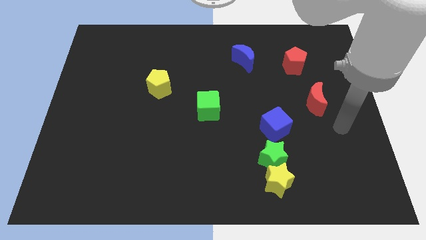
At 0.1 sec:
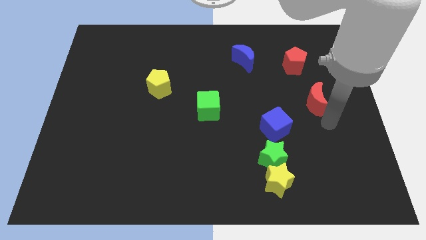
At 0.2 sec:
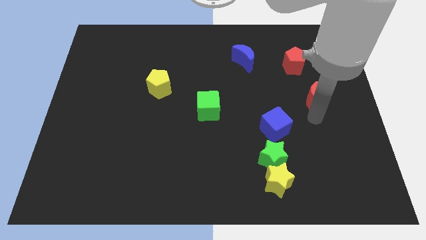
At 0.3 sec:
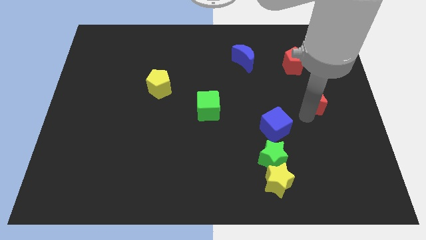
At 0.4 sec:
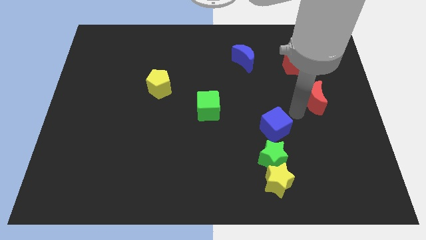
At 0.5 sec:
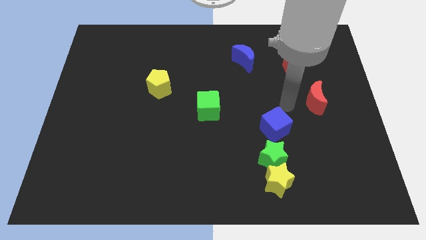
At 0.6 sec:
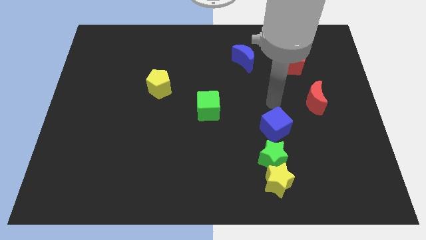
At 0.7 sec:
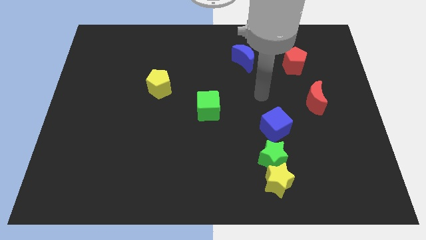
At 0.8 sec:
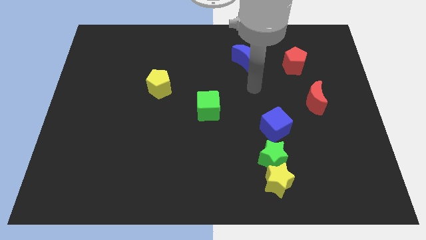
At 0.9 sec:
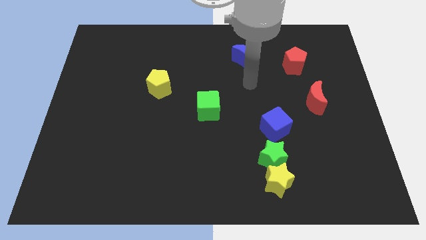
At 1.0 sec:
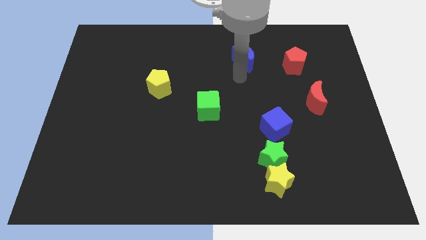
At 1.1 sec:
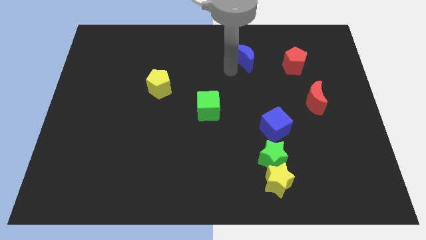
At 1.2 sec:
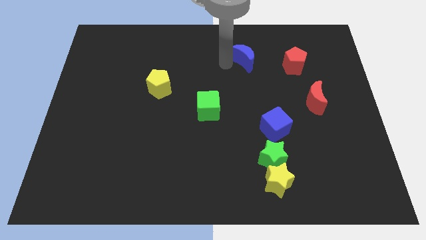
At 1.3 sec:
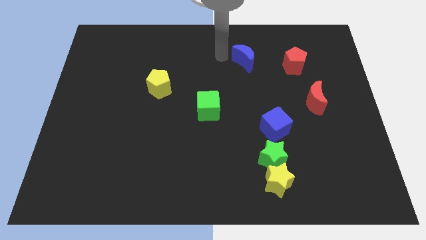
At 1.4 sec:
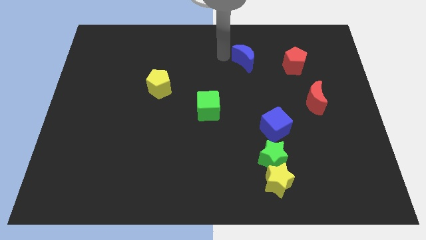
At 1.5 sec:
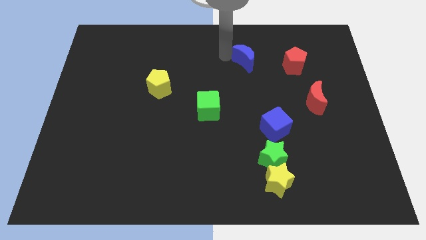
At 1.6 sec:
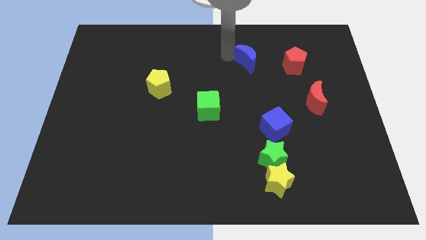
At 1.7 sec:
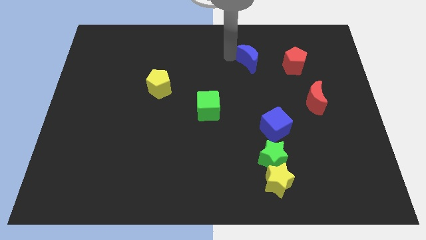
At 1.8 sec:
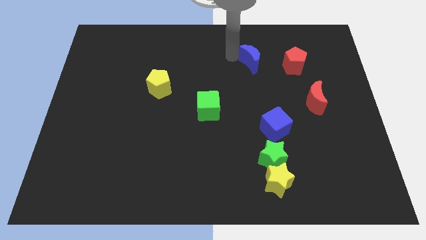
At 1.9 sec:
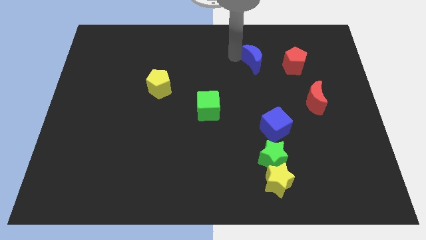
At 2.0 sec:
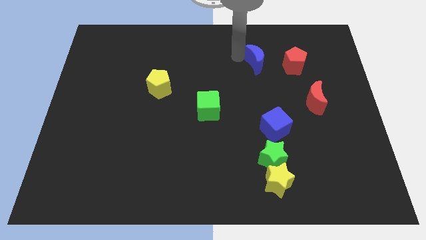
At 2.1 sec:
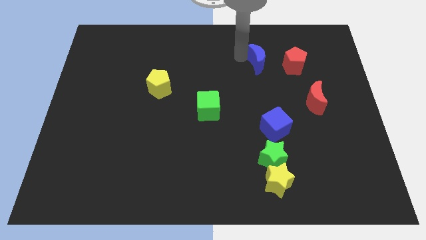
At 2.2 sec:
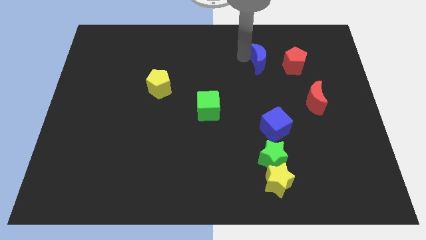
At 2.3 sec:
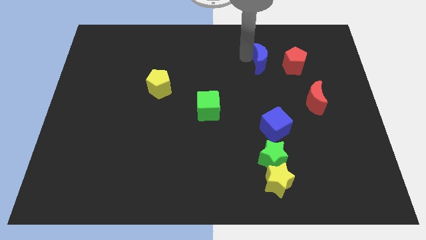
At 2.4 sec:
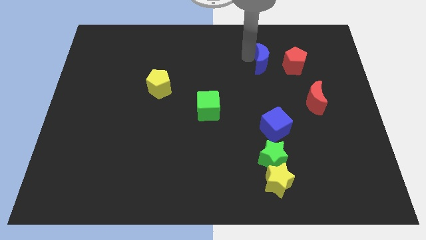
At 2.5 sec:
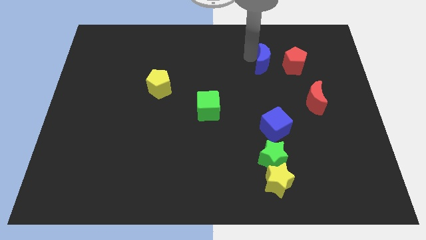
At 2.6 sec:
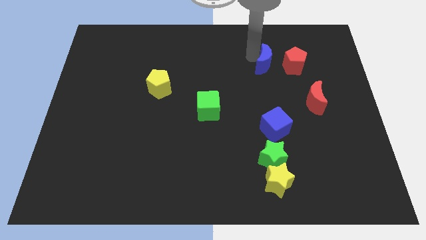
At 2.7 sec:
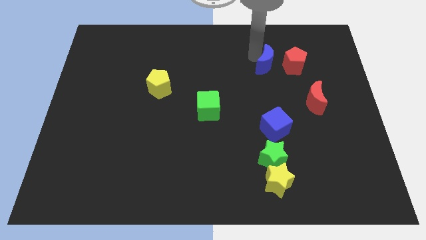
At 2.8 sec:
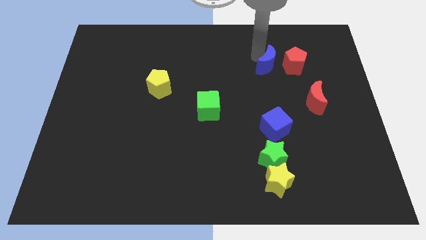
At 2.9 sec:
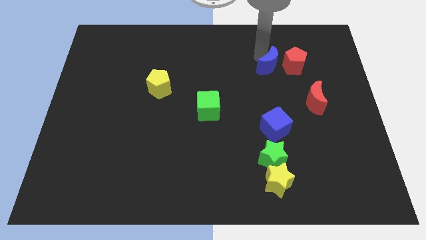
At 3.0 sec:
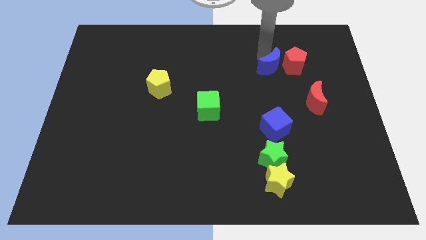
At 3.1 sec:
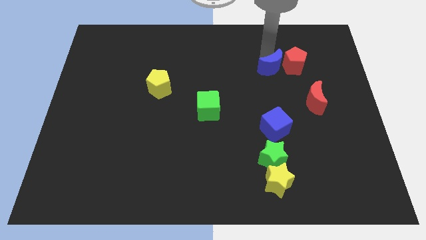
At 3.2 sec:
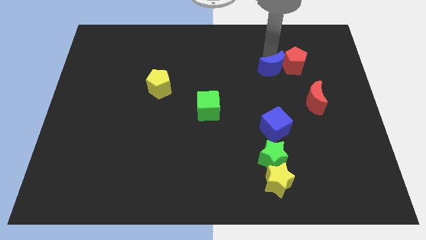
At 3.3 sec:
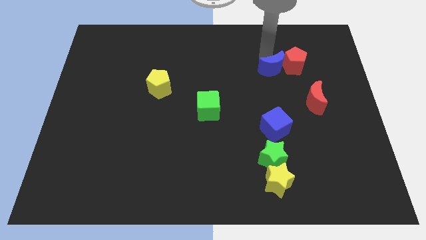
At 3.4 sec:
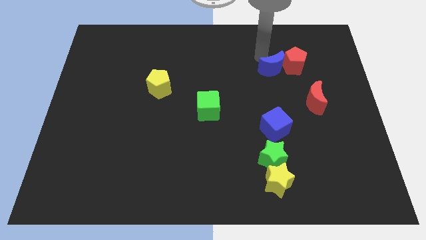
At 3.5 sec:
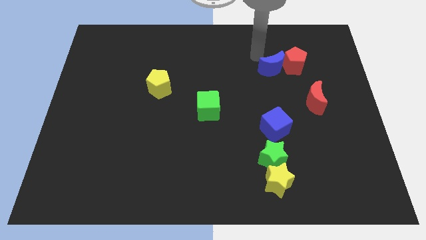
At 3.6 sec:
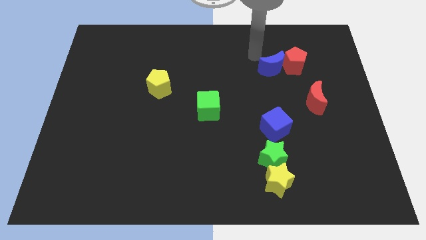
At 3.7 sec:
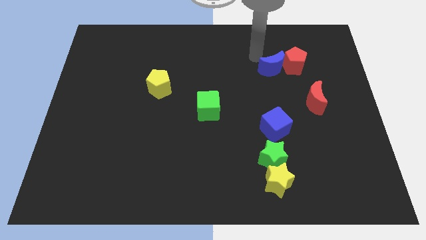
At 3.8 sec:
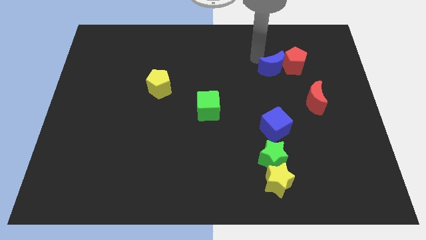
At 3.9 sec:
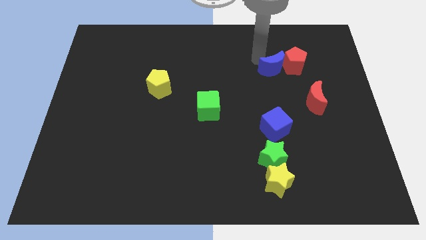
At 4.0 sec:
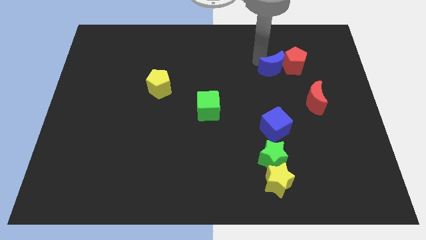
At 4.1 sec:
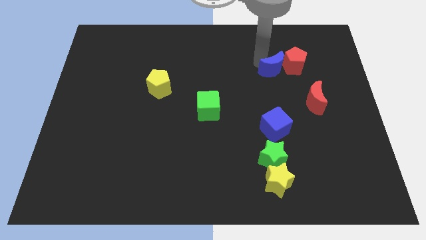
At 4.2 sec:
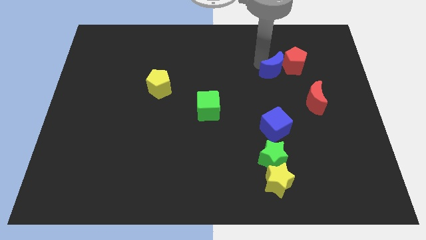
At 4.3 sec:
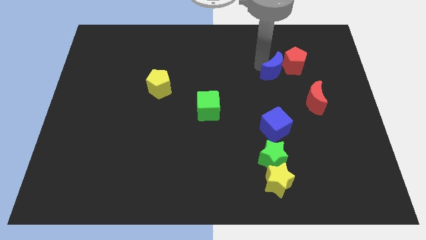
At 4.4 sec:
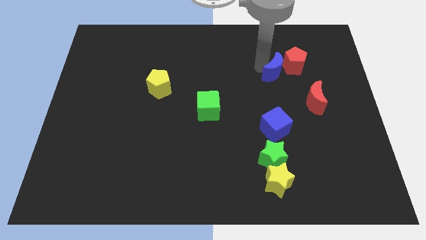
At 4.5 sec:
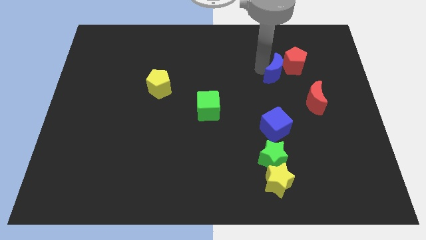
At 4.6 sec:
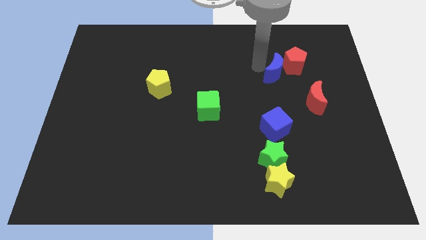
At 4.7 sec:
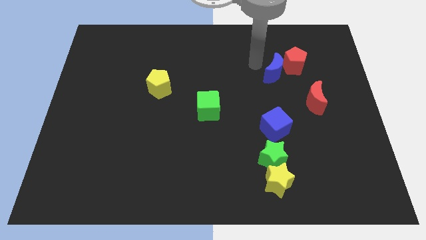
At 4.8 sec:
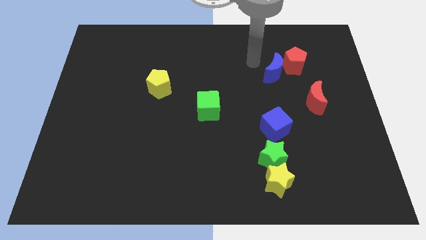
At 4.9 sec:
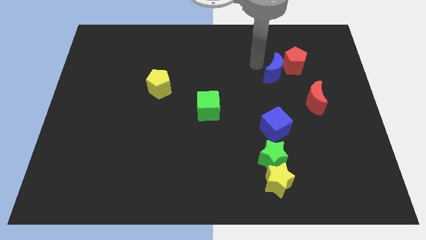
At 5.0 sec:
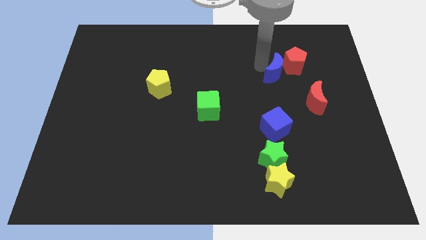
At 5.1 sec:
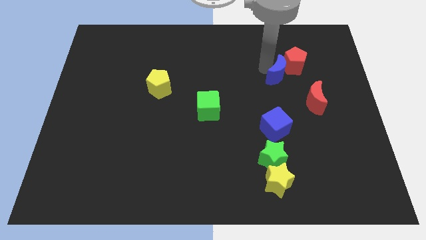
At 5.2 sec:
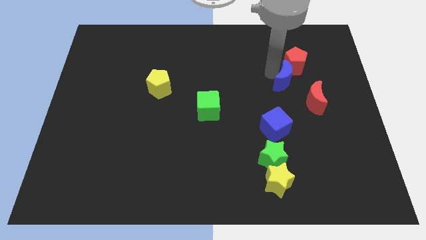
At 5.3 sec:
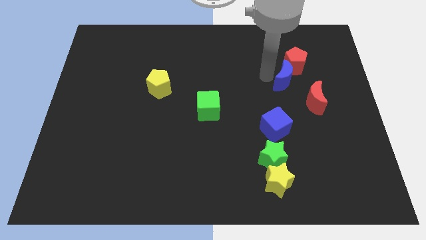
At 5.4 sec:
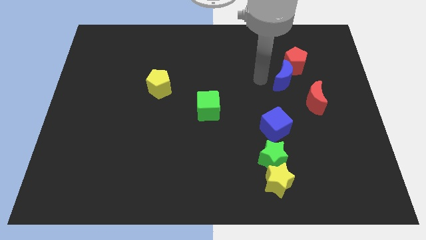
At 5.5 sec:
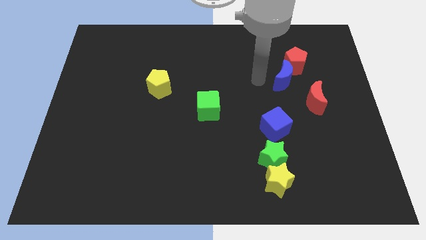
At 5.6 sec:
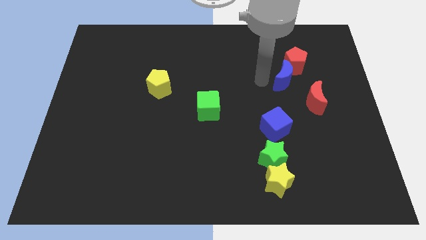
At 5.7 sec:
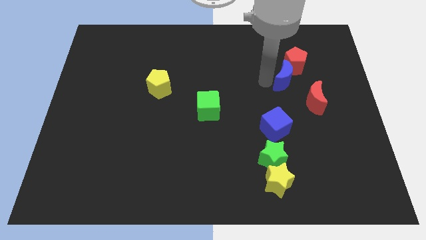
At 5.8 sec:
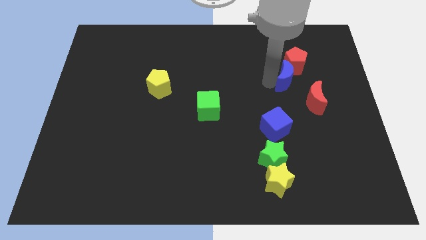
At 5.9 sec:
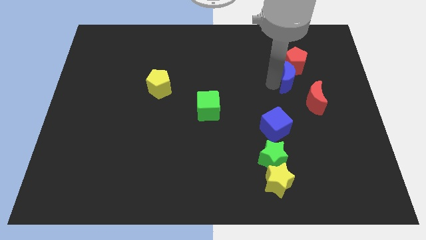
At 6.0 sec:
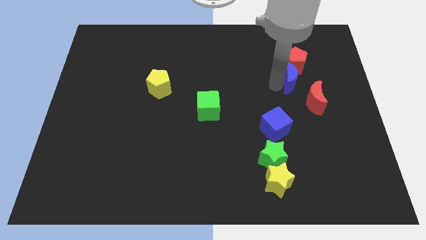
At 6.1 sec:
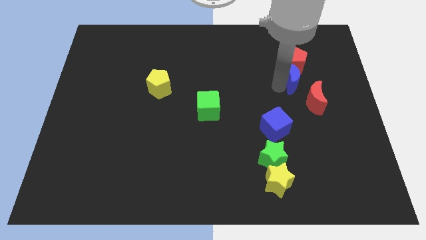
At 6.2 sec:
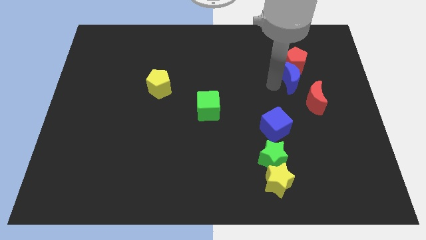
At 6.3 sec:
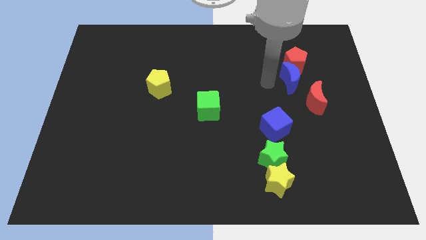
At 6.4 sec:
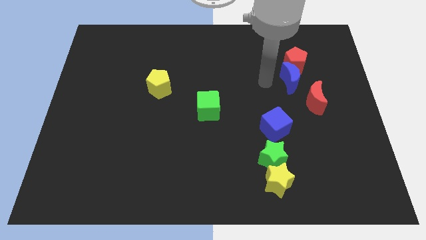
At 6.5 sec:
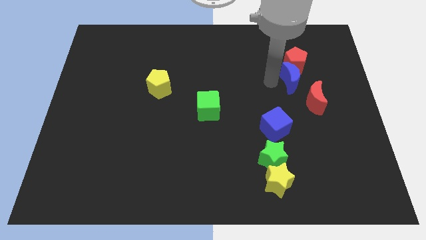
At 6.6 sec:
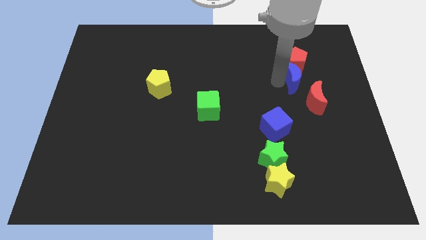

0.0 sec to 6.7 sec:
put the blue moon to the bottom right of the red pentagon

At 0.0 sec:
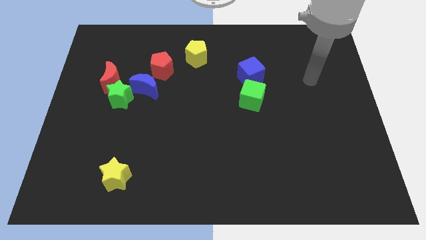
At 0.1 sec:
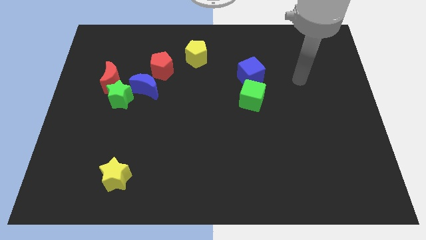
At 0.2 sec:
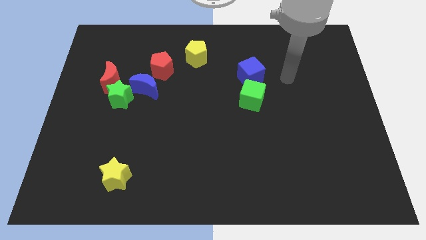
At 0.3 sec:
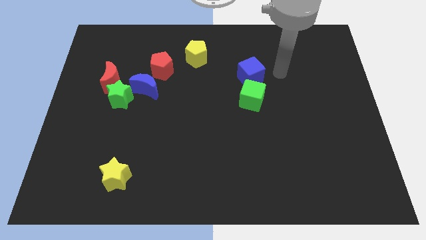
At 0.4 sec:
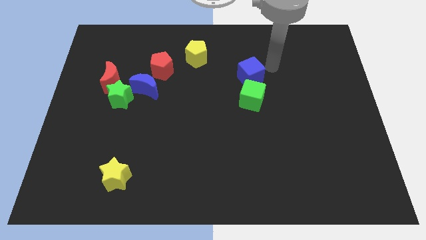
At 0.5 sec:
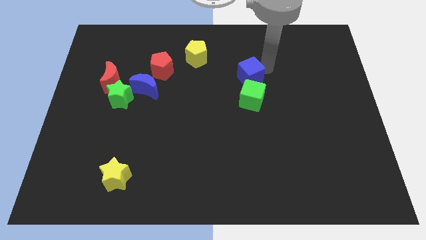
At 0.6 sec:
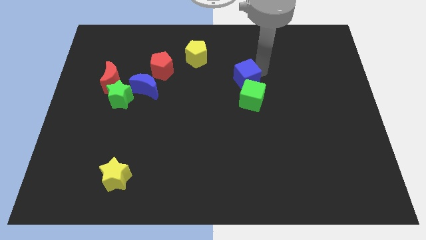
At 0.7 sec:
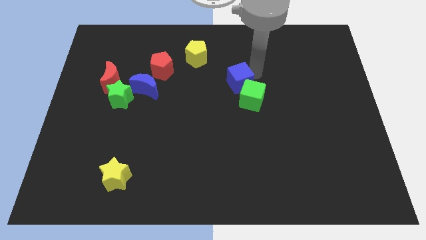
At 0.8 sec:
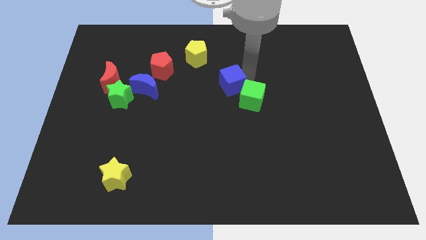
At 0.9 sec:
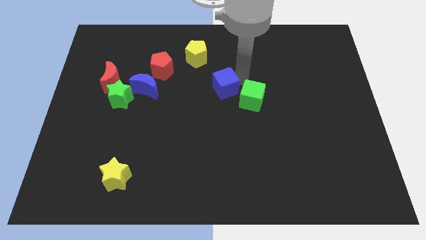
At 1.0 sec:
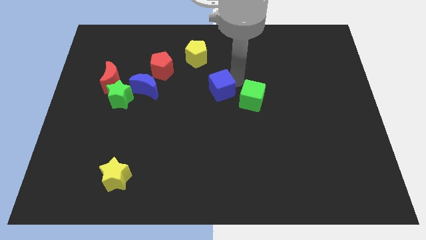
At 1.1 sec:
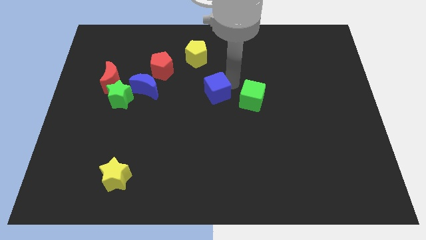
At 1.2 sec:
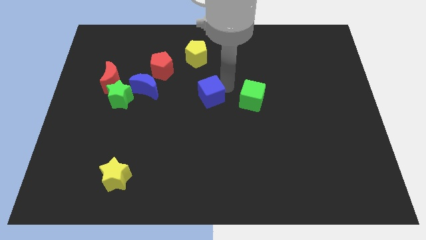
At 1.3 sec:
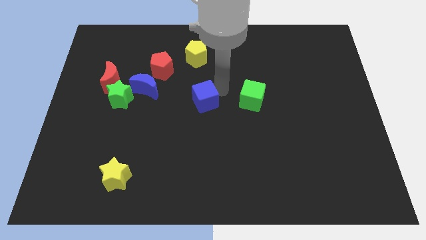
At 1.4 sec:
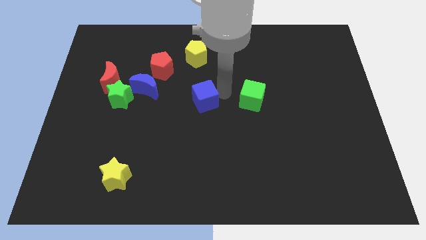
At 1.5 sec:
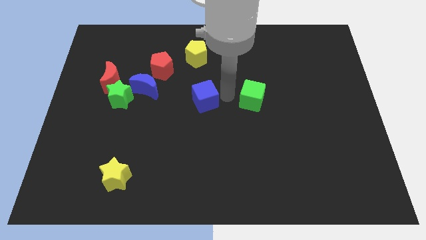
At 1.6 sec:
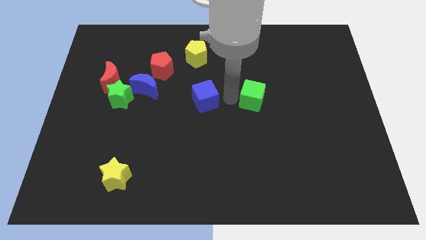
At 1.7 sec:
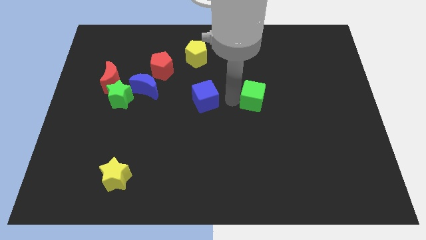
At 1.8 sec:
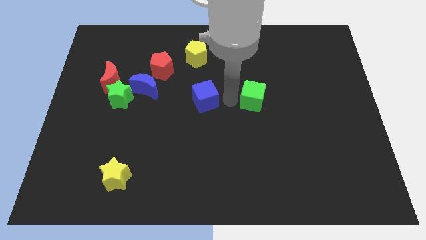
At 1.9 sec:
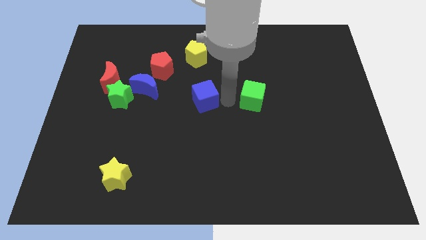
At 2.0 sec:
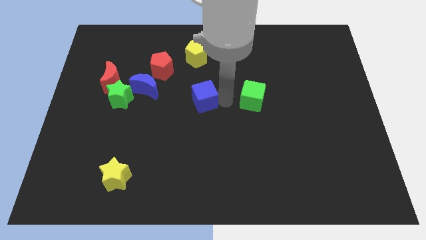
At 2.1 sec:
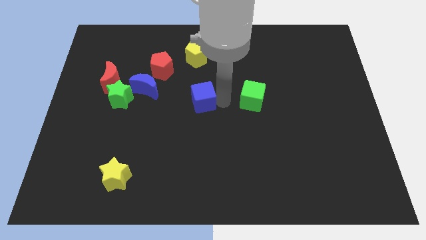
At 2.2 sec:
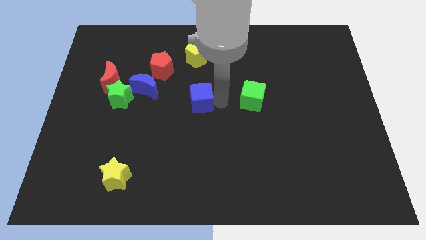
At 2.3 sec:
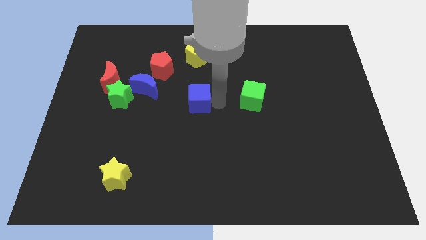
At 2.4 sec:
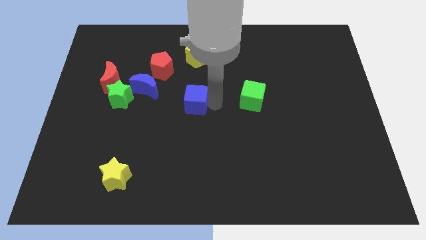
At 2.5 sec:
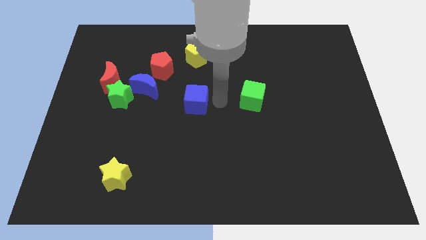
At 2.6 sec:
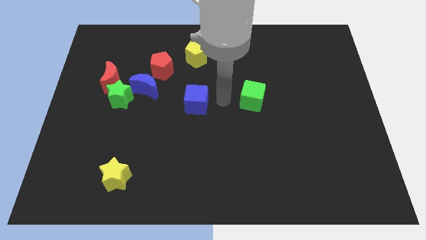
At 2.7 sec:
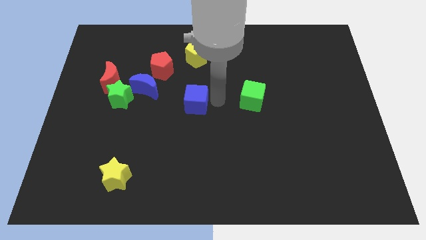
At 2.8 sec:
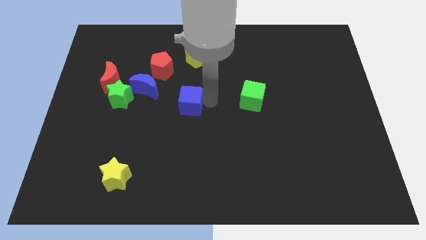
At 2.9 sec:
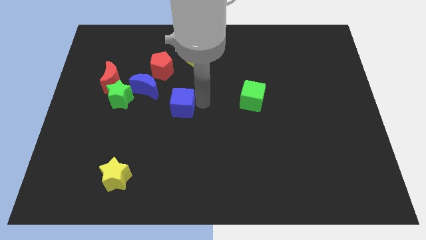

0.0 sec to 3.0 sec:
move the blue cube to the bottom right of the blue moon
